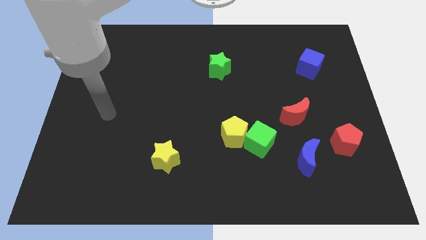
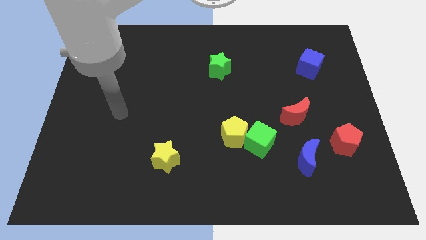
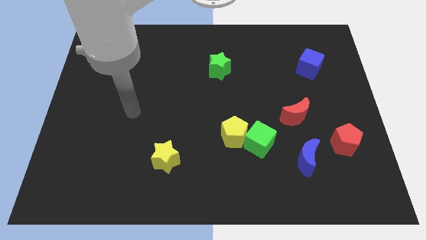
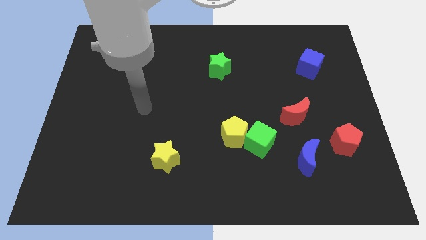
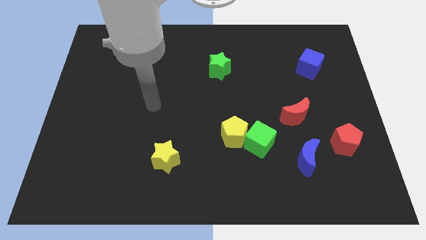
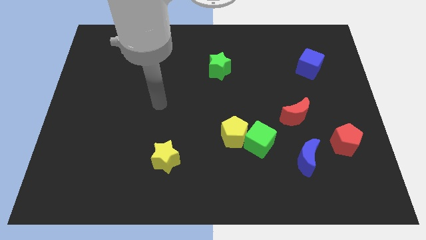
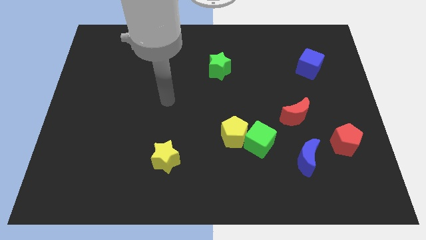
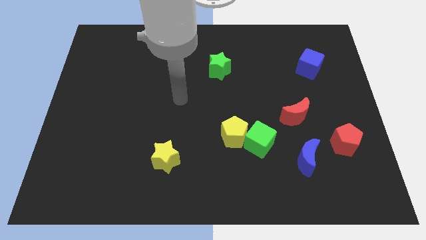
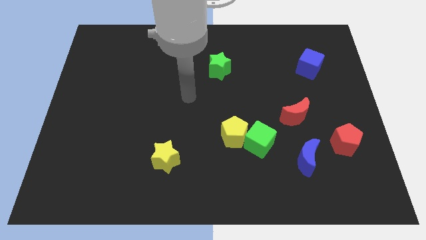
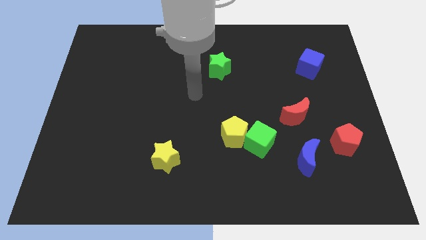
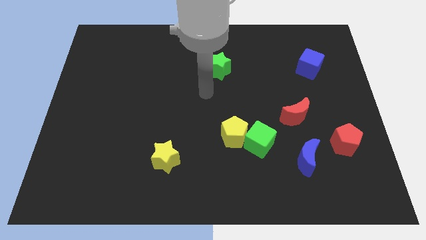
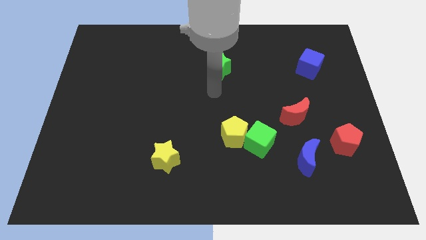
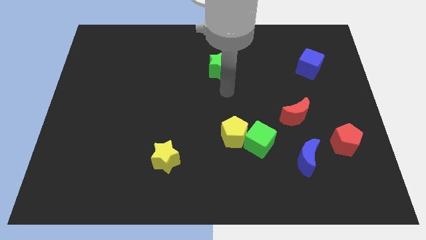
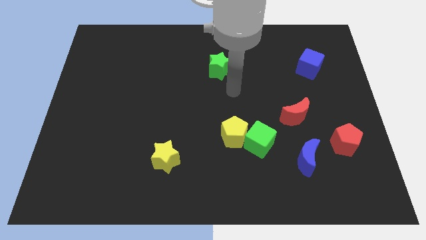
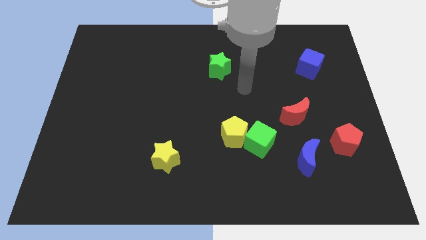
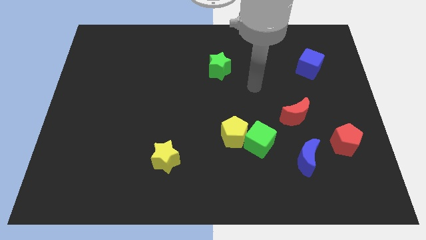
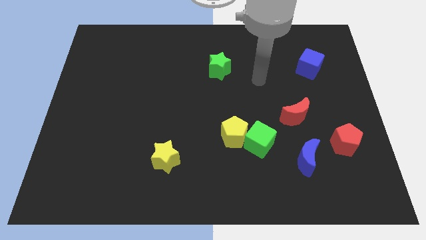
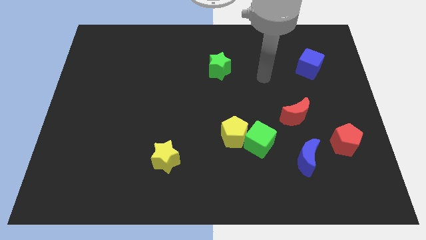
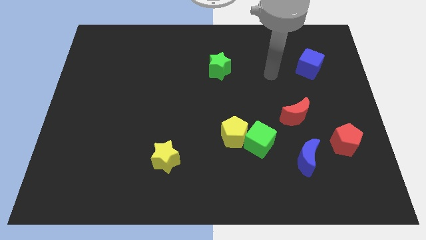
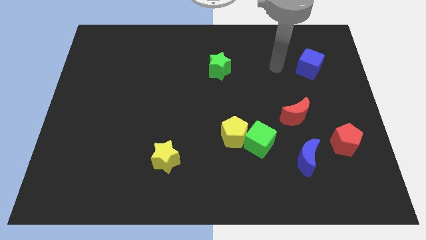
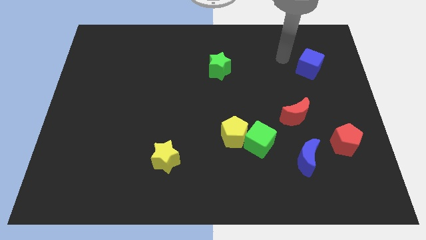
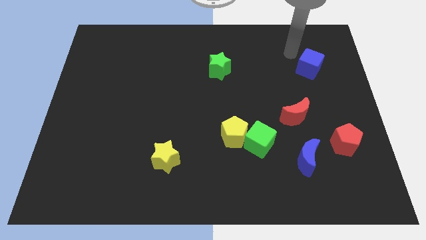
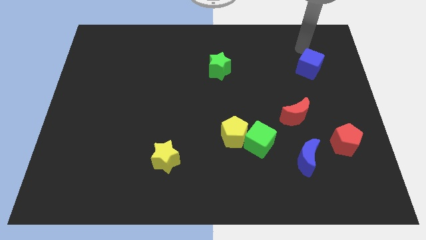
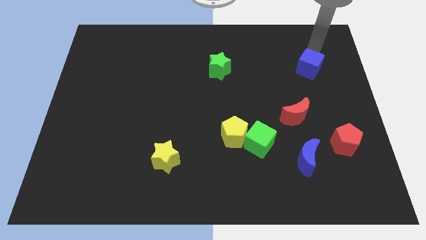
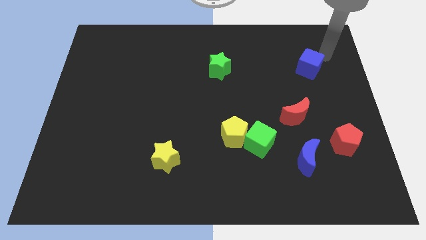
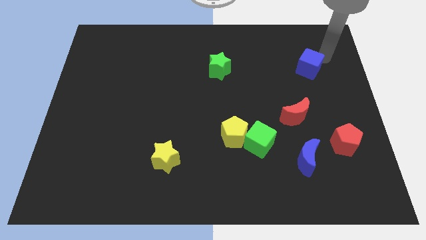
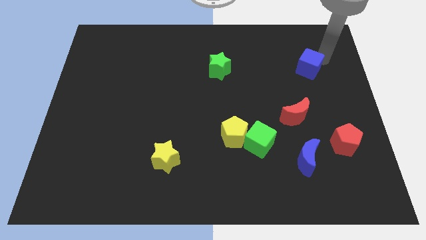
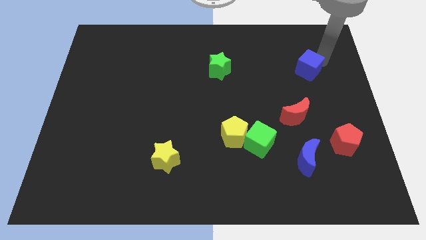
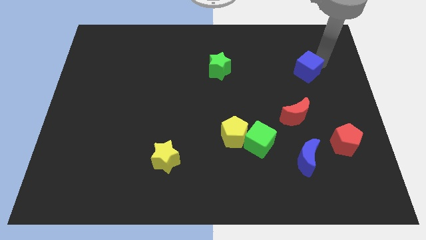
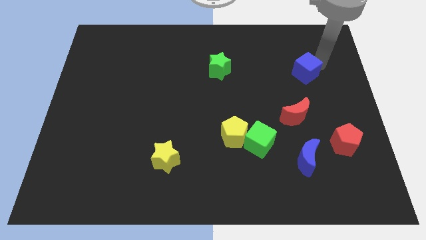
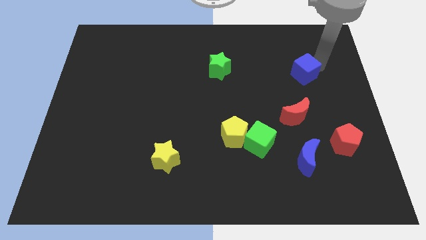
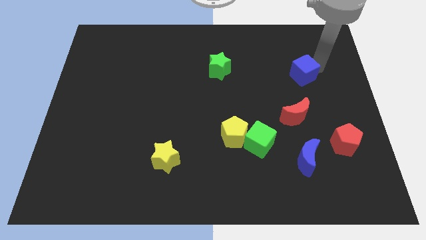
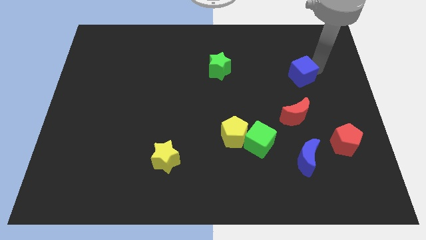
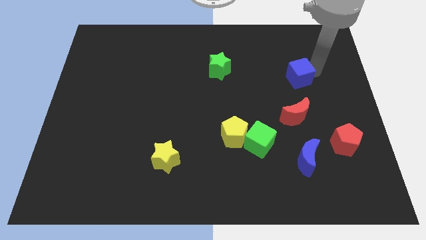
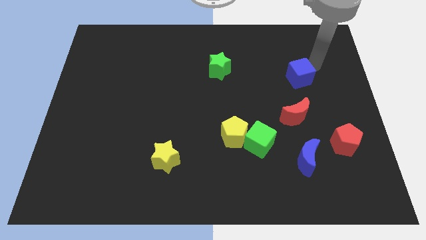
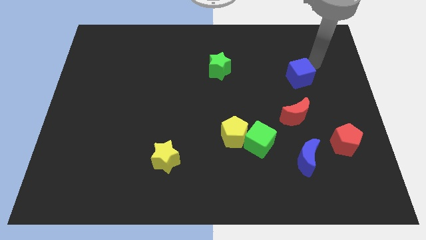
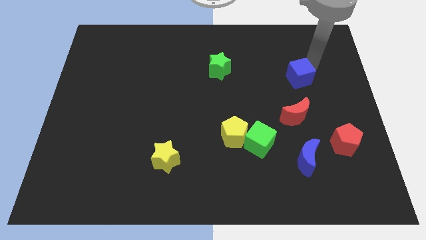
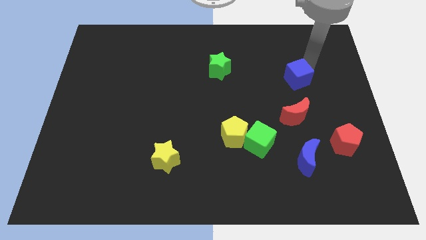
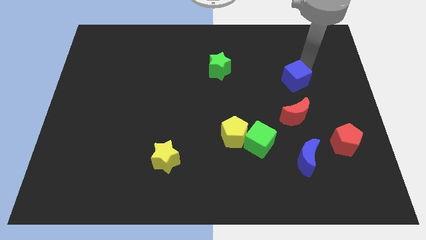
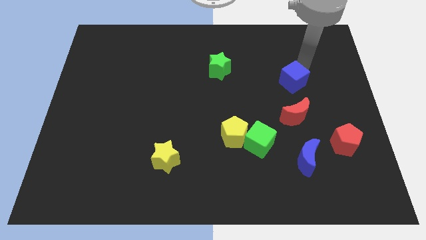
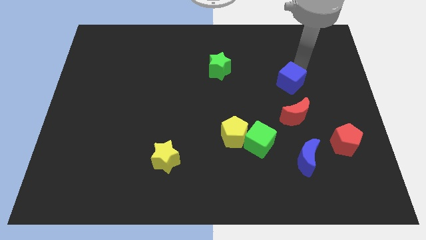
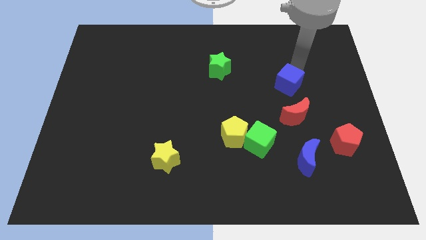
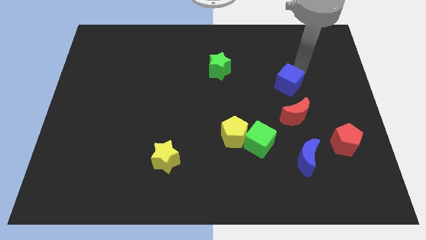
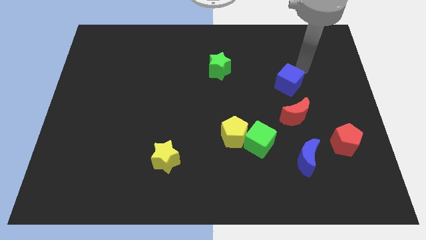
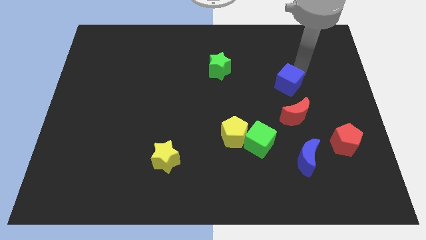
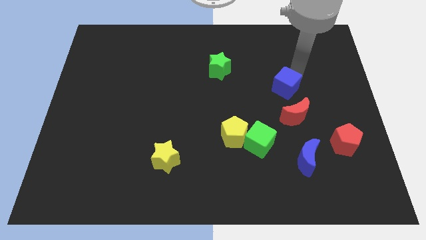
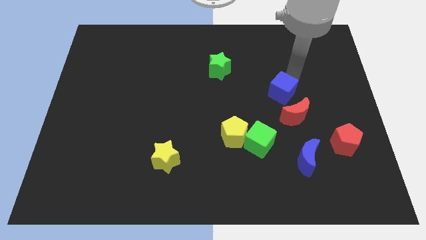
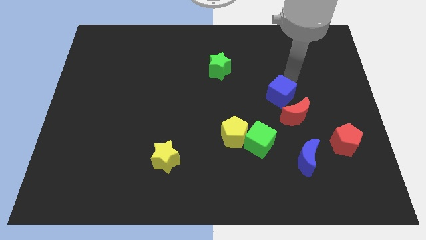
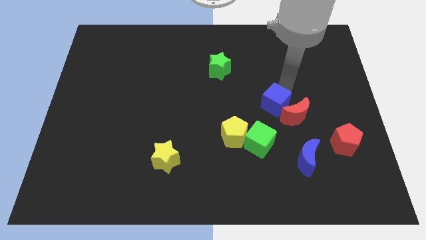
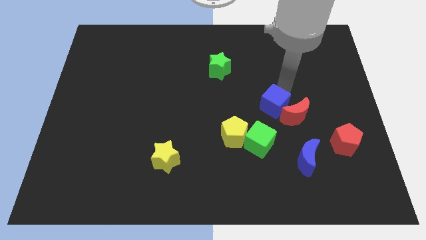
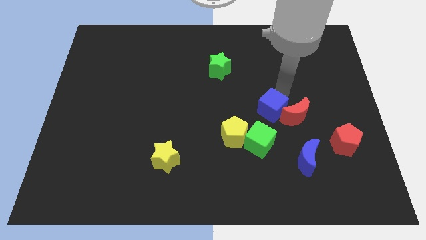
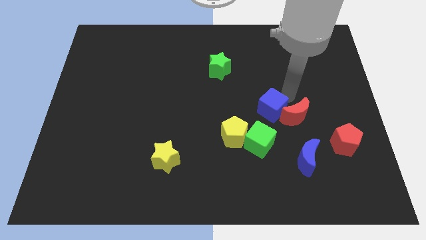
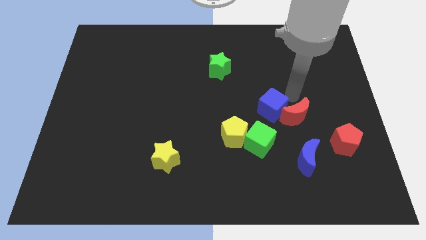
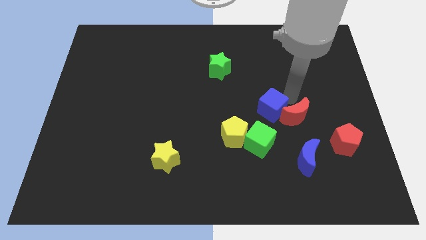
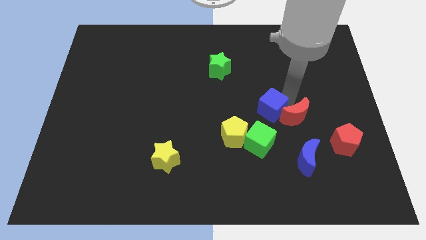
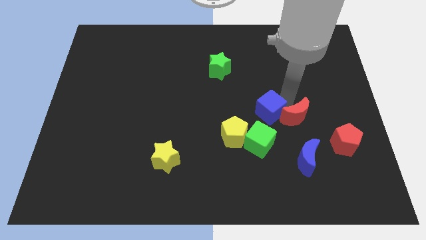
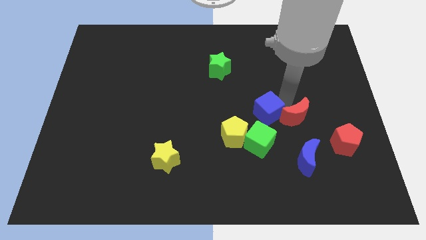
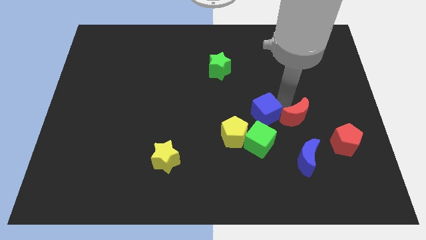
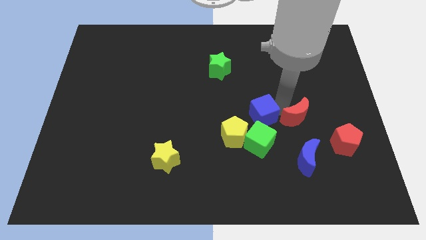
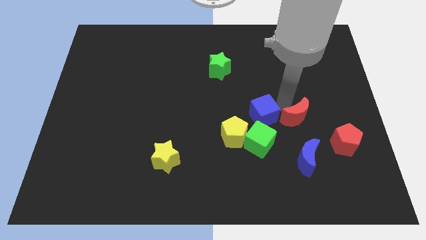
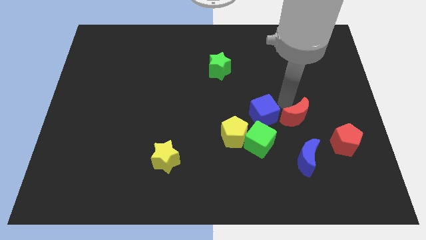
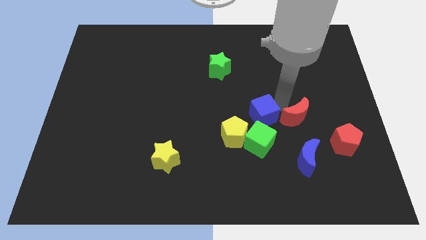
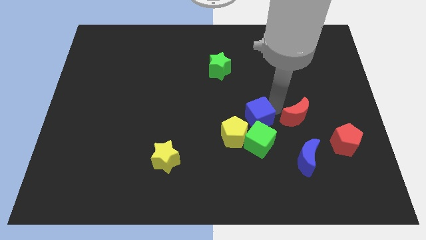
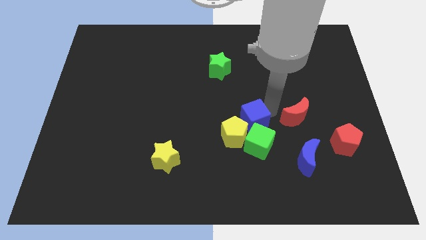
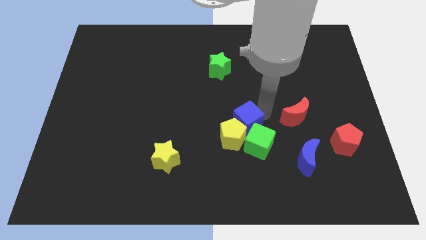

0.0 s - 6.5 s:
slide the blue cube next to the yellow pentagon
